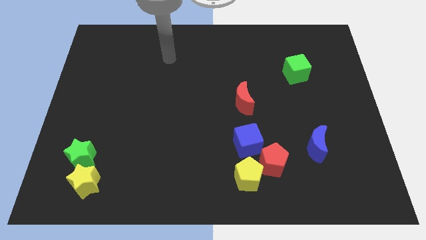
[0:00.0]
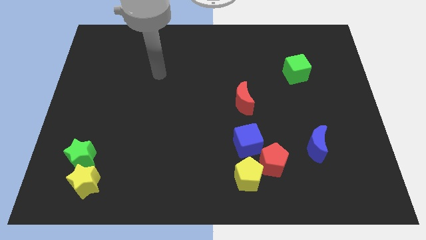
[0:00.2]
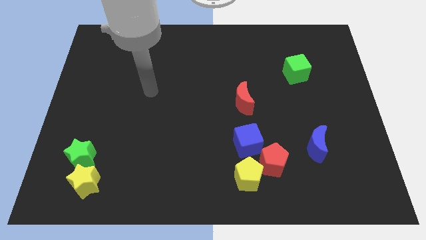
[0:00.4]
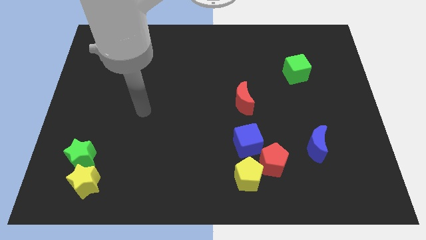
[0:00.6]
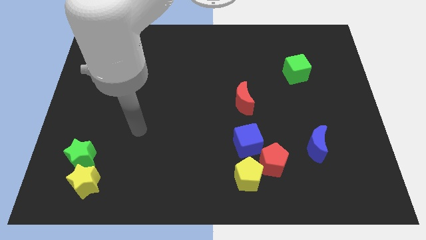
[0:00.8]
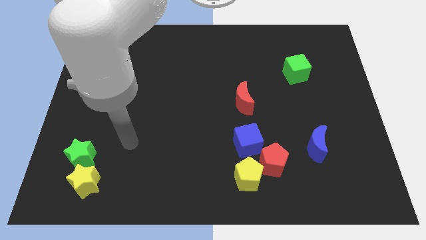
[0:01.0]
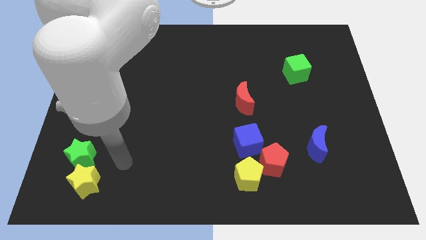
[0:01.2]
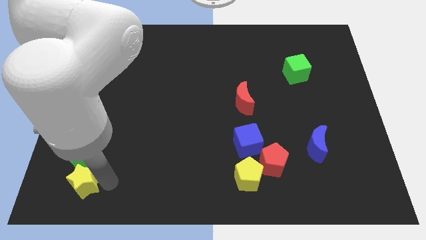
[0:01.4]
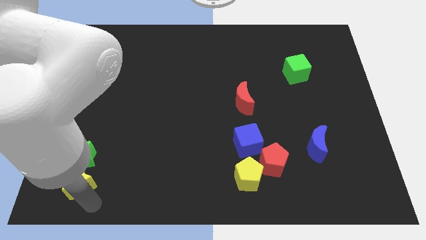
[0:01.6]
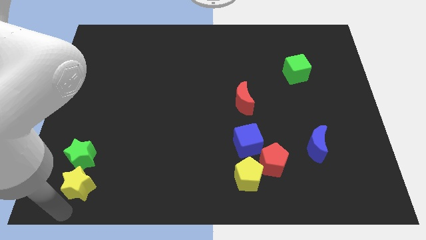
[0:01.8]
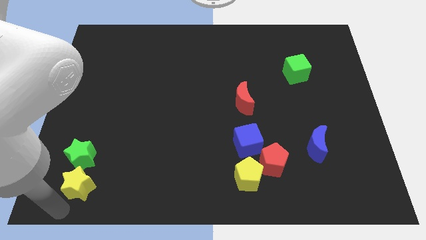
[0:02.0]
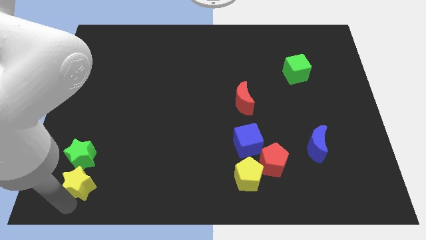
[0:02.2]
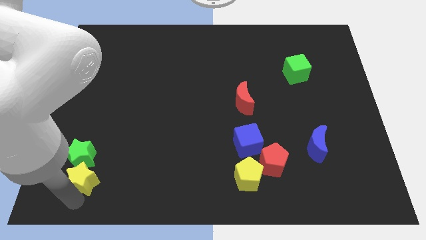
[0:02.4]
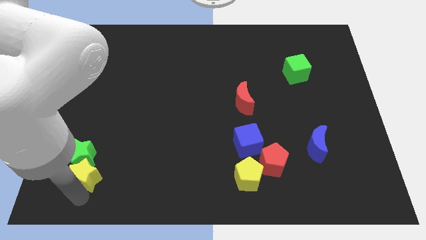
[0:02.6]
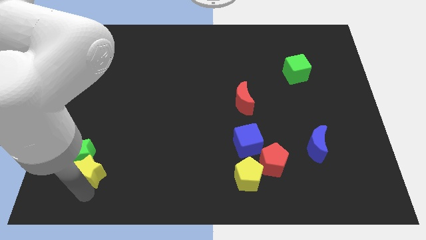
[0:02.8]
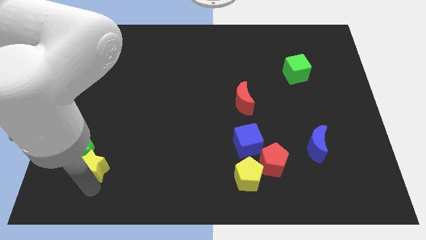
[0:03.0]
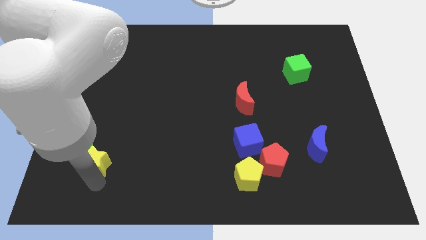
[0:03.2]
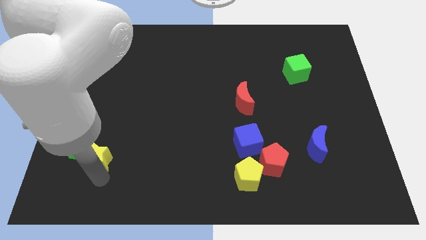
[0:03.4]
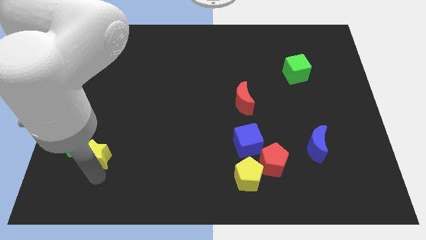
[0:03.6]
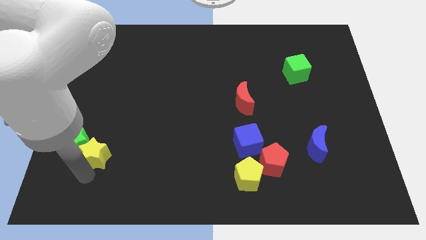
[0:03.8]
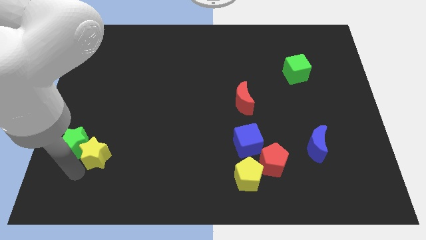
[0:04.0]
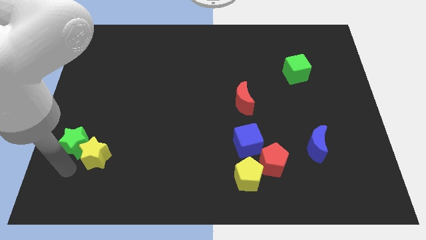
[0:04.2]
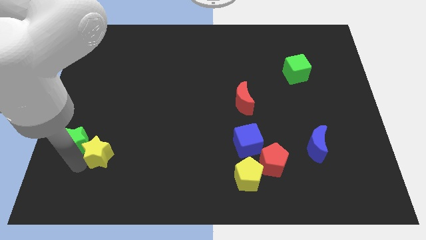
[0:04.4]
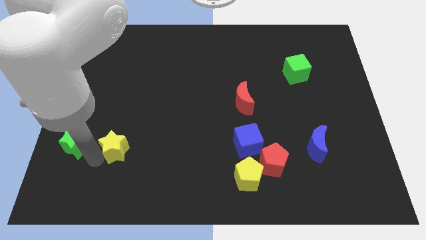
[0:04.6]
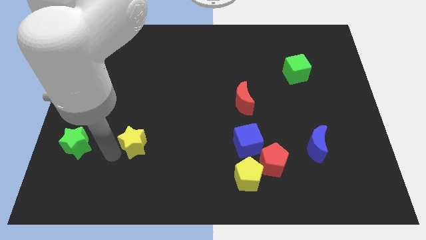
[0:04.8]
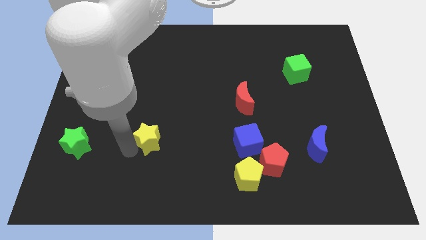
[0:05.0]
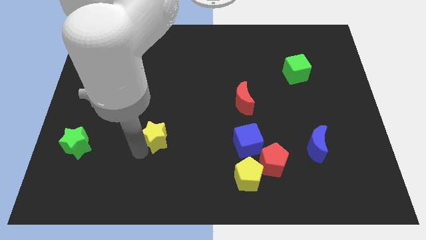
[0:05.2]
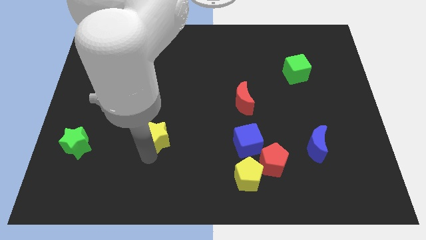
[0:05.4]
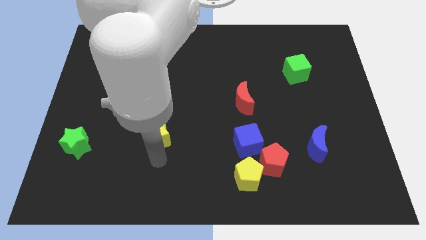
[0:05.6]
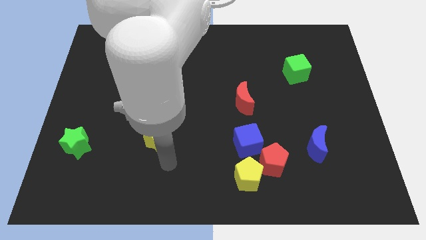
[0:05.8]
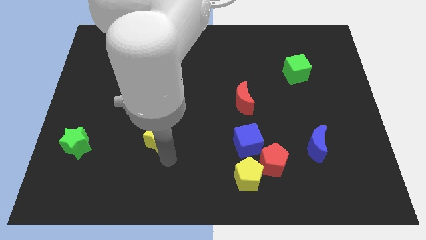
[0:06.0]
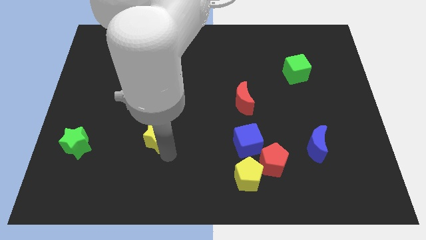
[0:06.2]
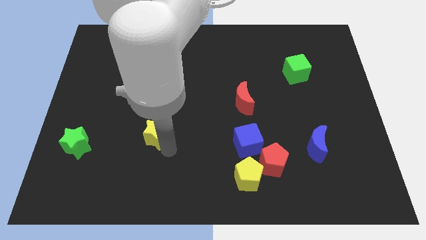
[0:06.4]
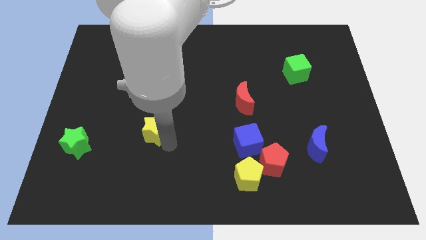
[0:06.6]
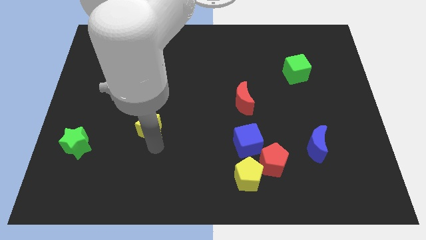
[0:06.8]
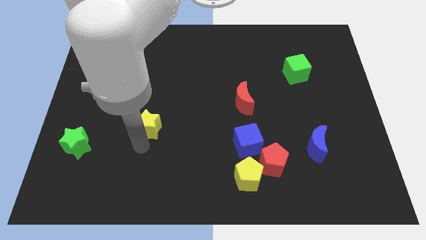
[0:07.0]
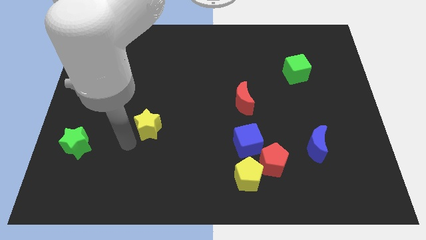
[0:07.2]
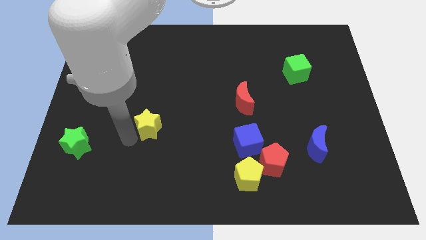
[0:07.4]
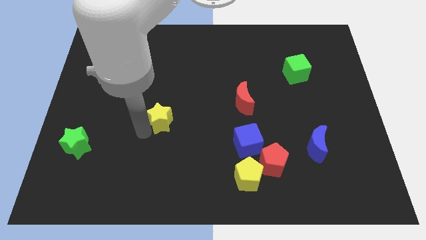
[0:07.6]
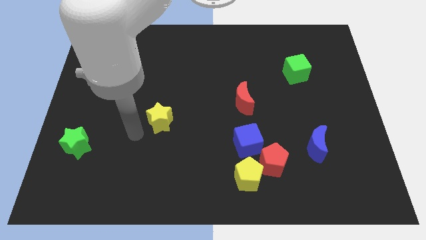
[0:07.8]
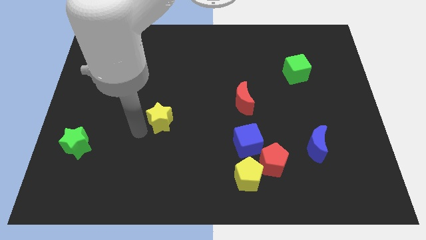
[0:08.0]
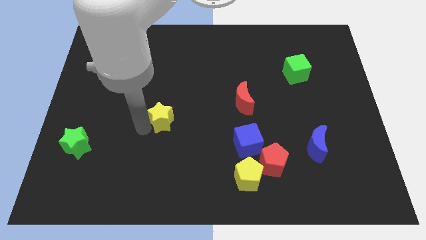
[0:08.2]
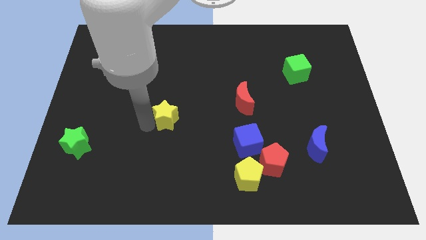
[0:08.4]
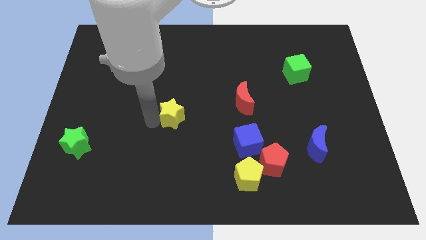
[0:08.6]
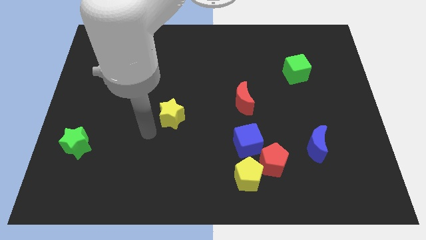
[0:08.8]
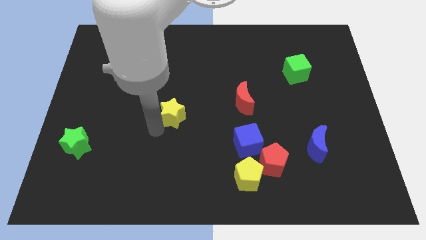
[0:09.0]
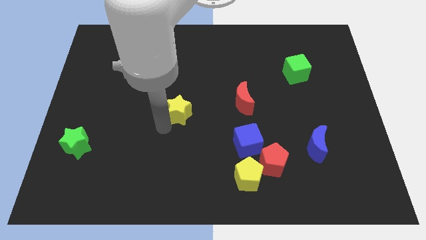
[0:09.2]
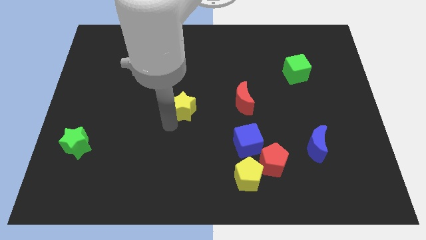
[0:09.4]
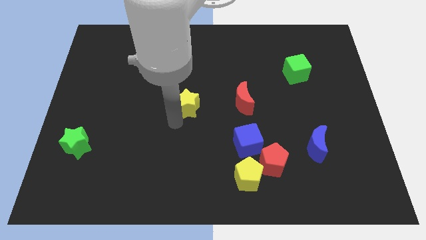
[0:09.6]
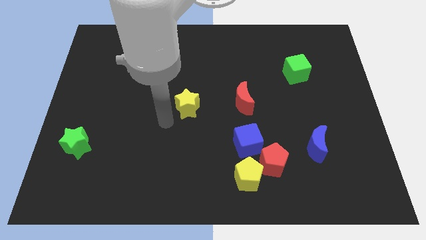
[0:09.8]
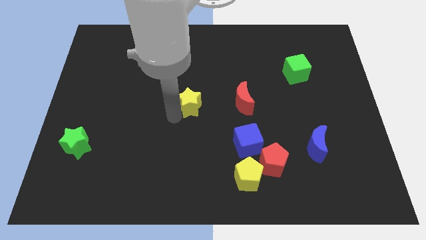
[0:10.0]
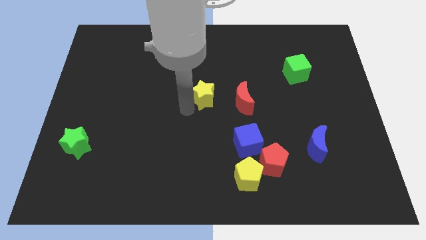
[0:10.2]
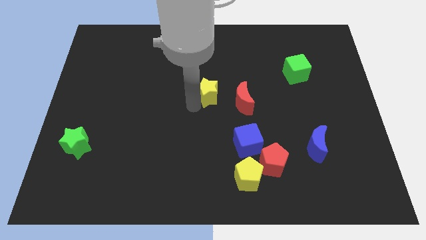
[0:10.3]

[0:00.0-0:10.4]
put the yellow star to the top left of the red moon

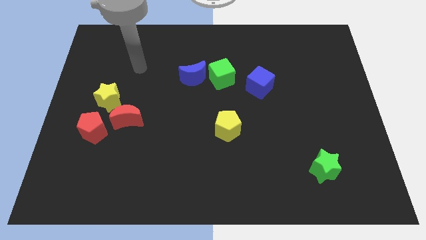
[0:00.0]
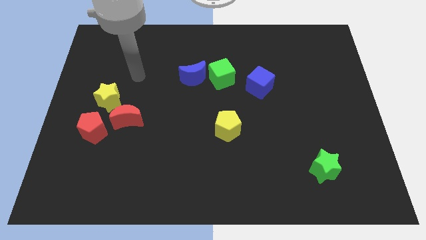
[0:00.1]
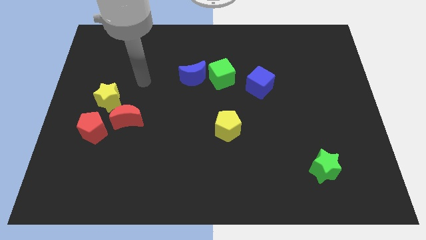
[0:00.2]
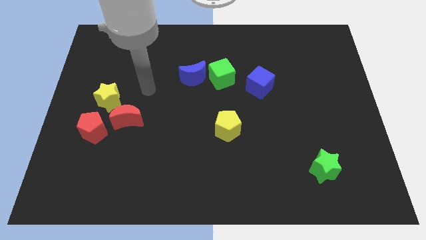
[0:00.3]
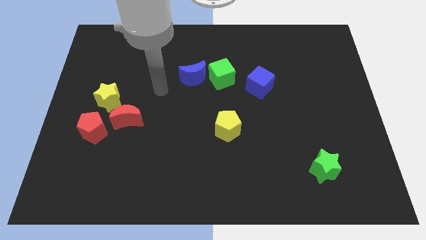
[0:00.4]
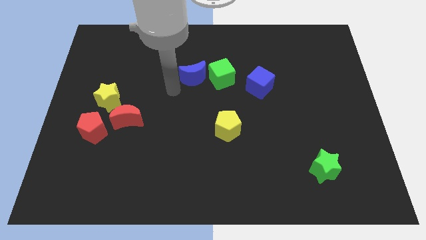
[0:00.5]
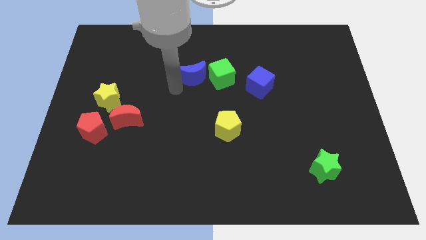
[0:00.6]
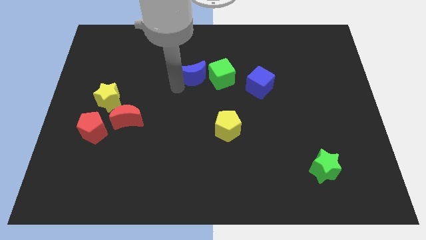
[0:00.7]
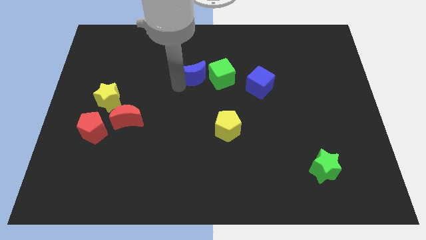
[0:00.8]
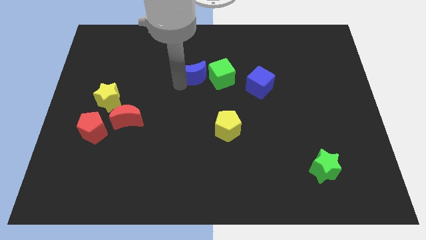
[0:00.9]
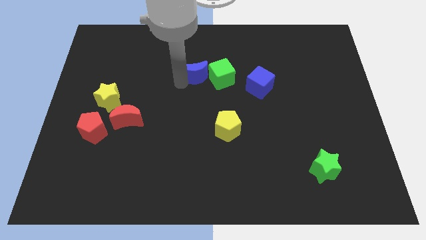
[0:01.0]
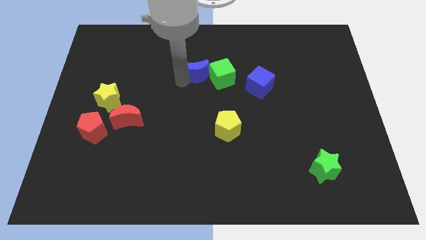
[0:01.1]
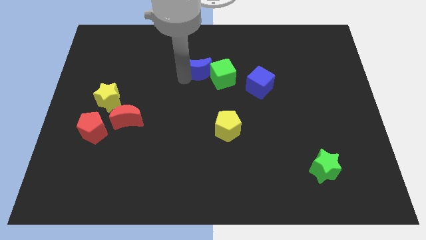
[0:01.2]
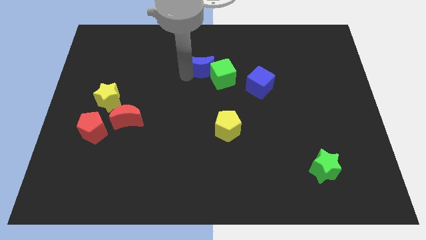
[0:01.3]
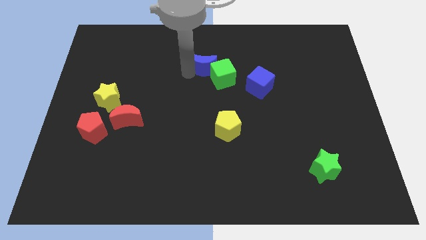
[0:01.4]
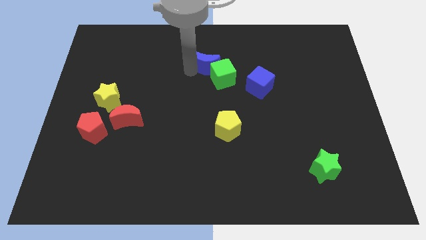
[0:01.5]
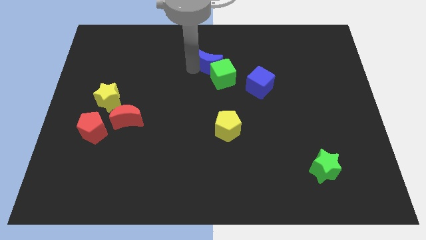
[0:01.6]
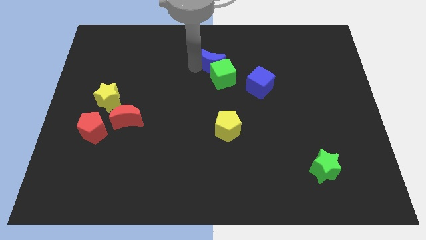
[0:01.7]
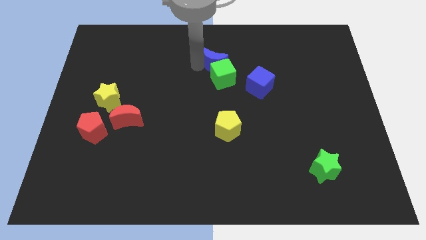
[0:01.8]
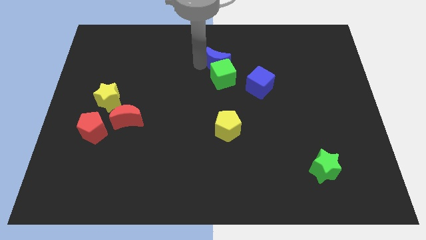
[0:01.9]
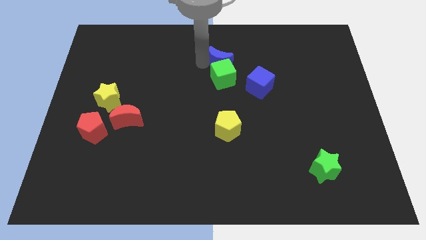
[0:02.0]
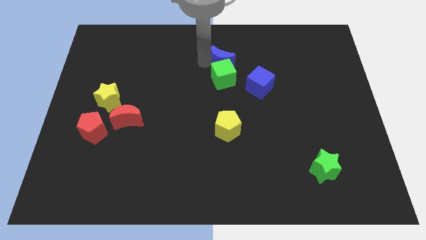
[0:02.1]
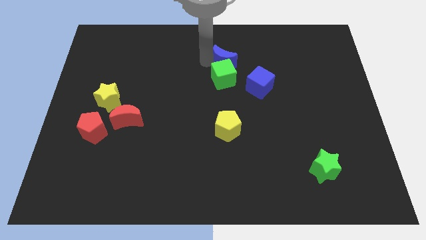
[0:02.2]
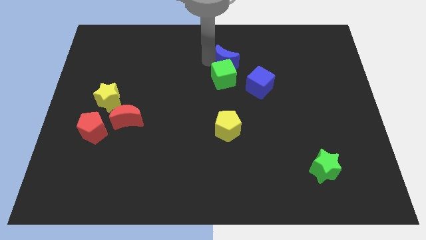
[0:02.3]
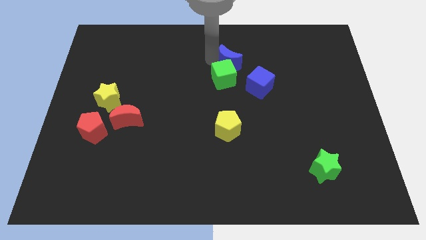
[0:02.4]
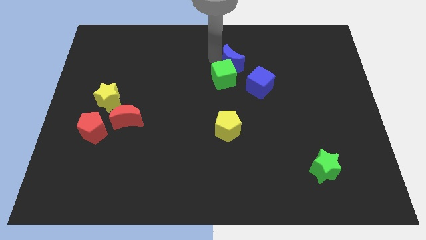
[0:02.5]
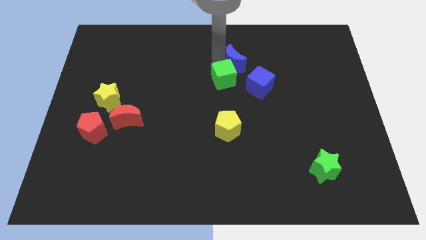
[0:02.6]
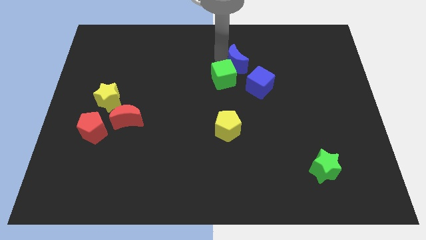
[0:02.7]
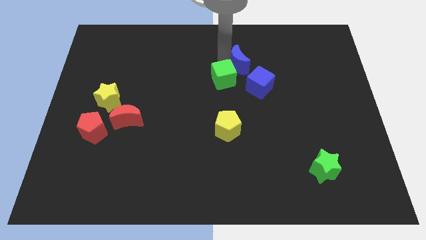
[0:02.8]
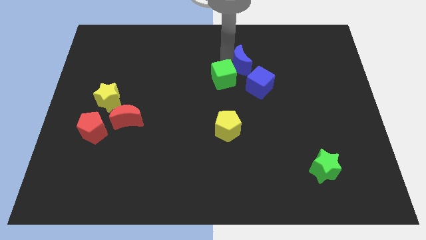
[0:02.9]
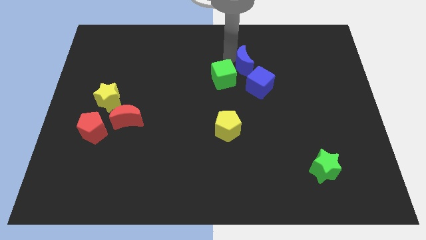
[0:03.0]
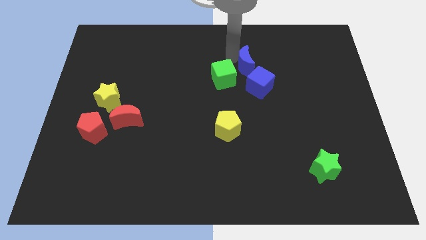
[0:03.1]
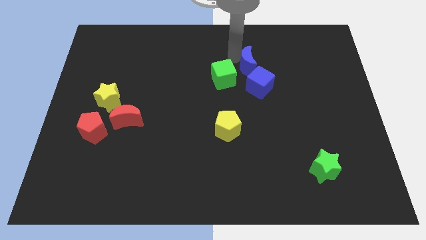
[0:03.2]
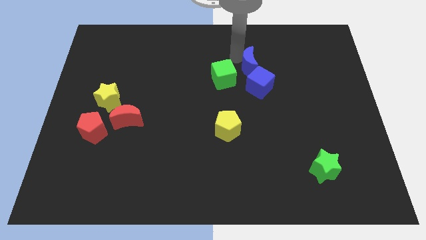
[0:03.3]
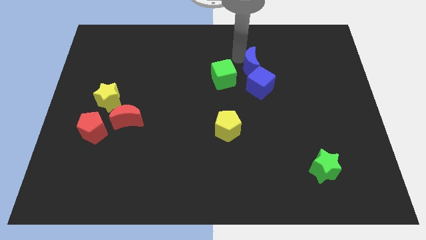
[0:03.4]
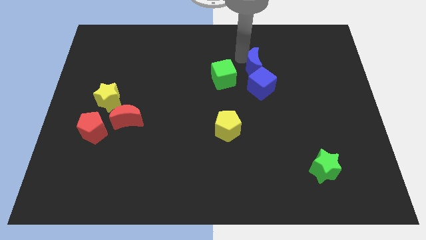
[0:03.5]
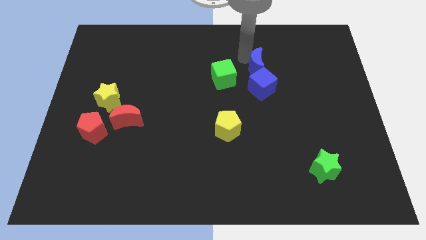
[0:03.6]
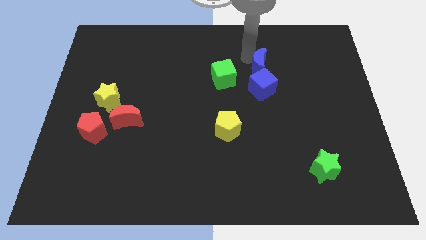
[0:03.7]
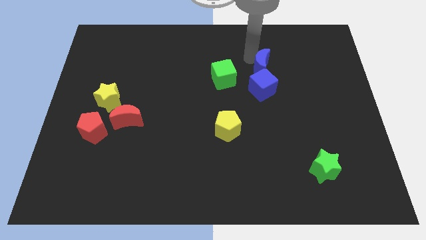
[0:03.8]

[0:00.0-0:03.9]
put the blue moon to the top right side of the blue cube
